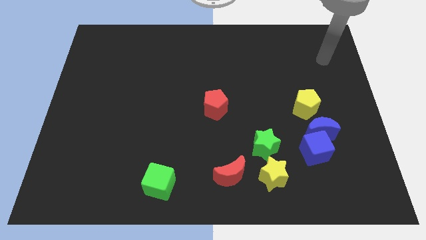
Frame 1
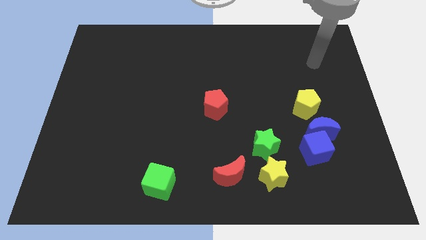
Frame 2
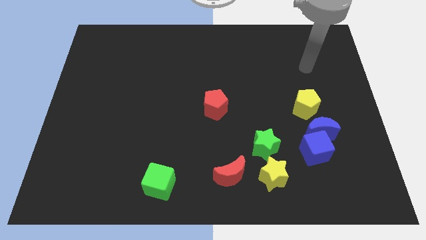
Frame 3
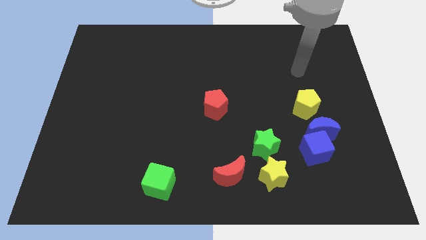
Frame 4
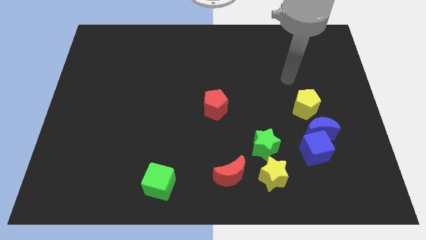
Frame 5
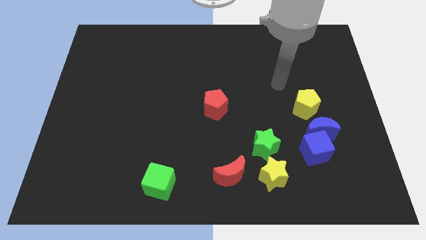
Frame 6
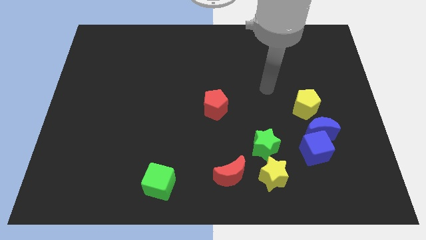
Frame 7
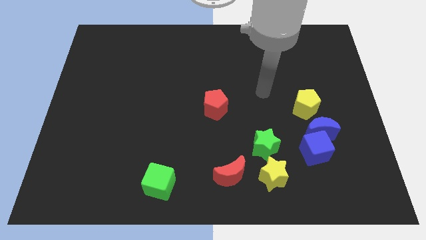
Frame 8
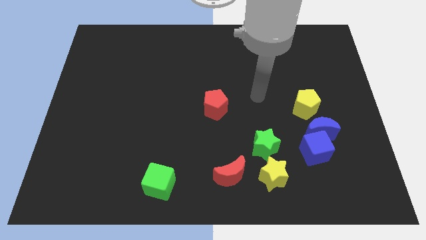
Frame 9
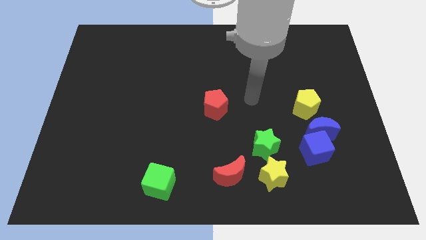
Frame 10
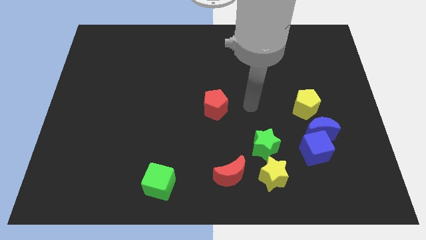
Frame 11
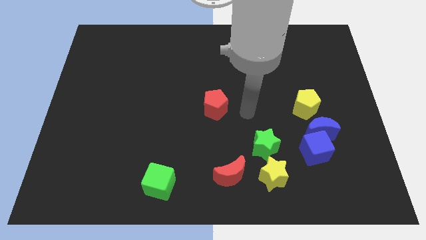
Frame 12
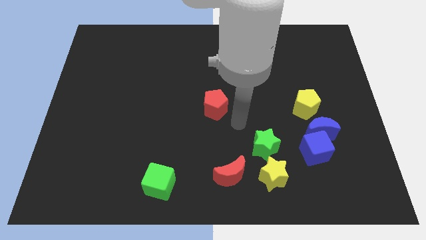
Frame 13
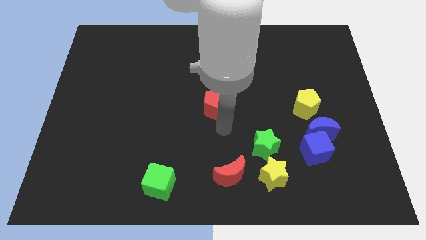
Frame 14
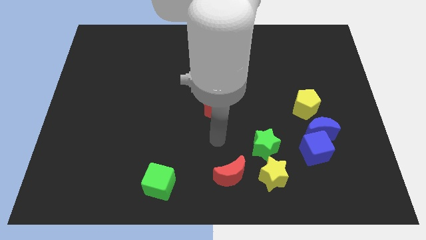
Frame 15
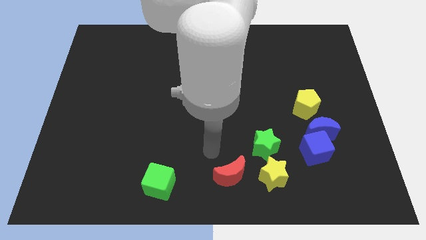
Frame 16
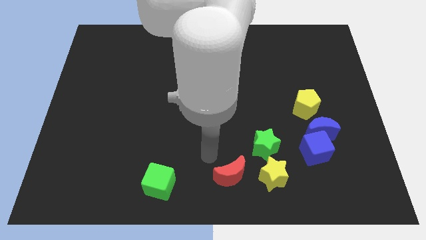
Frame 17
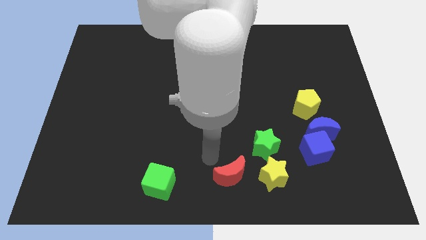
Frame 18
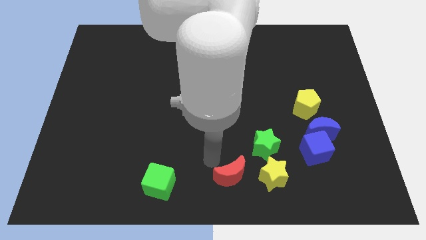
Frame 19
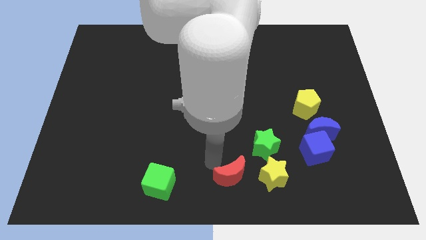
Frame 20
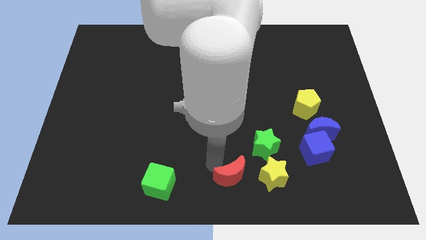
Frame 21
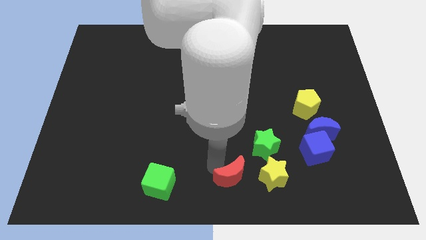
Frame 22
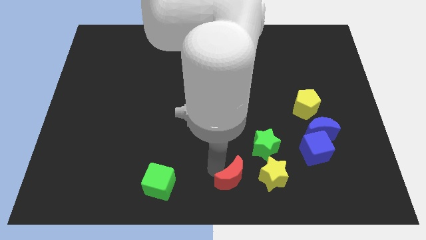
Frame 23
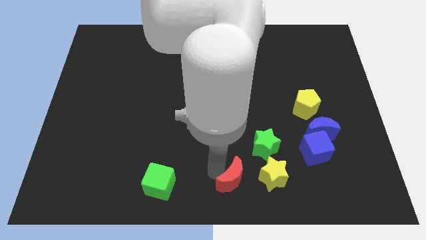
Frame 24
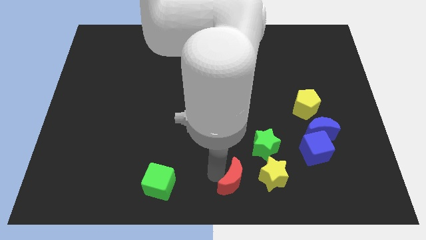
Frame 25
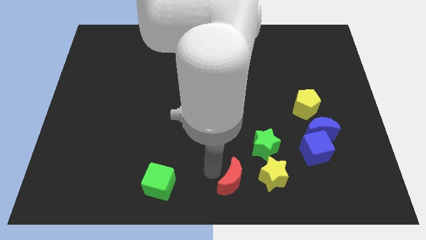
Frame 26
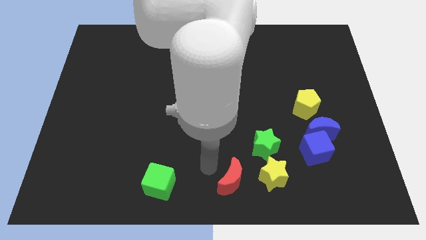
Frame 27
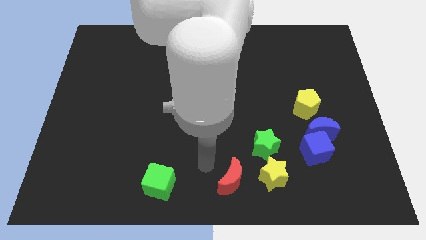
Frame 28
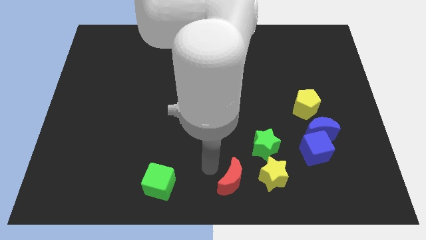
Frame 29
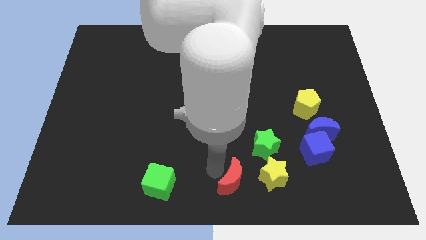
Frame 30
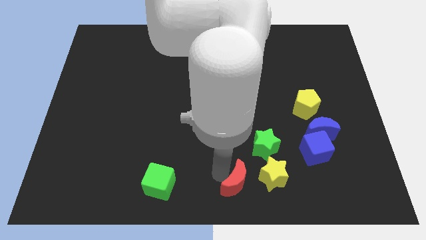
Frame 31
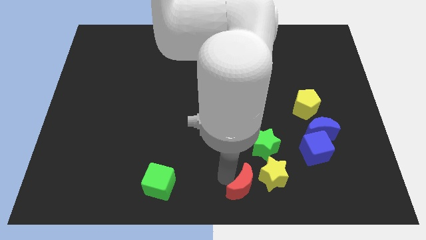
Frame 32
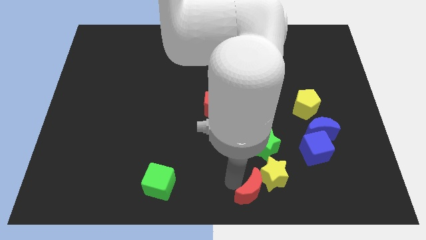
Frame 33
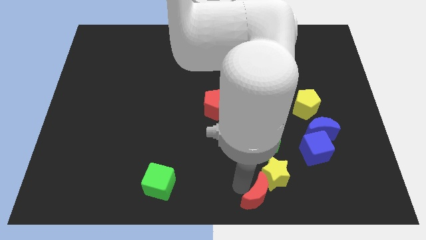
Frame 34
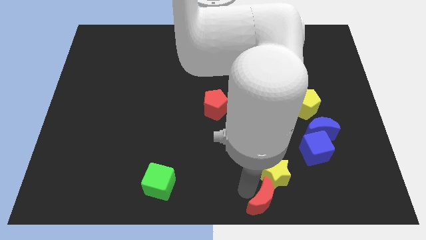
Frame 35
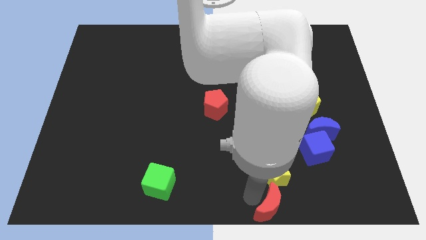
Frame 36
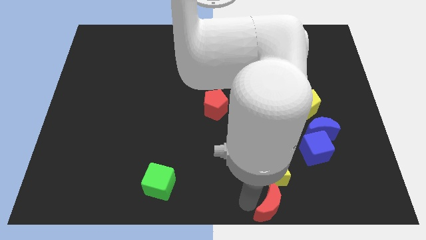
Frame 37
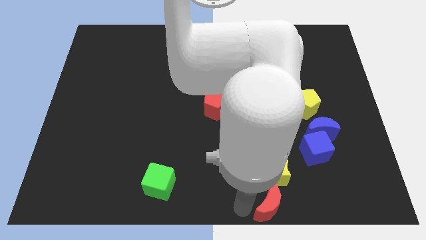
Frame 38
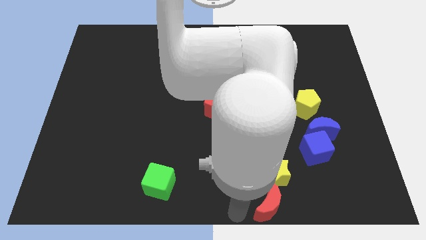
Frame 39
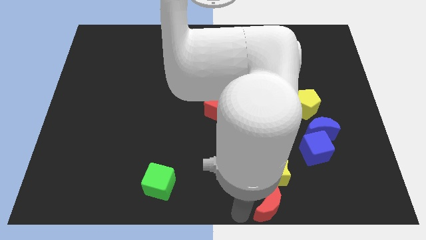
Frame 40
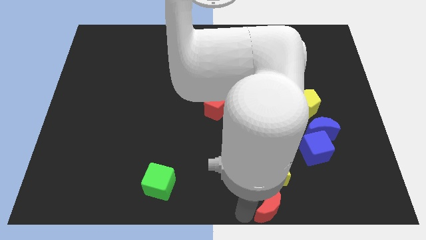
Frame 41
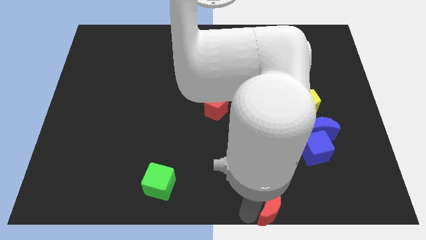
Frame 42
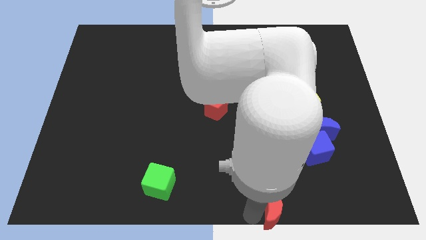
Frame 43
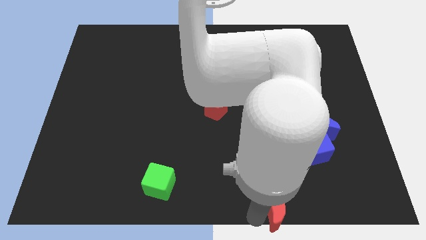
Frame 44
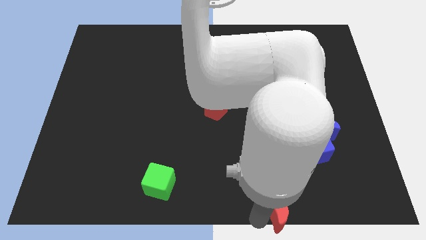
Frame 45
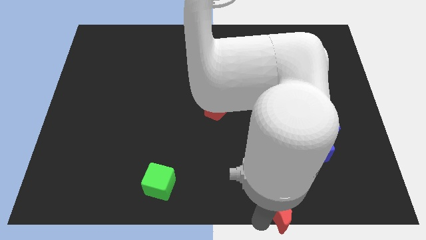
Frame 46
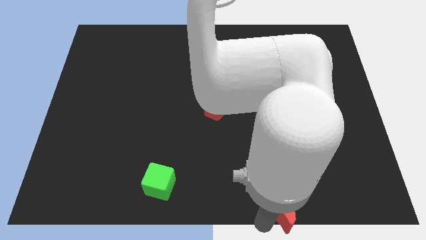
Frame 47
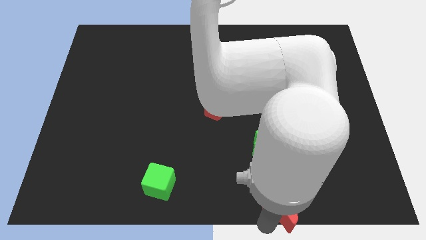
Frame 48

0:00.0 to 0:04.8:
move the red moon right slightly

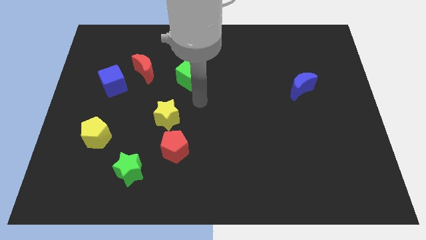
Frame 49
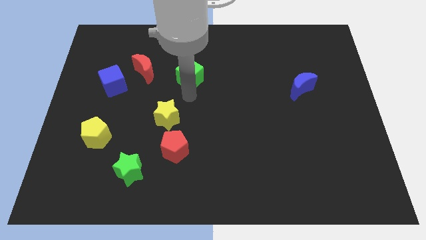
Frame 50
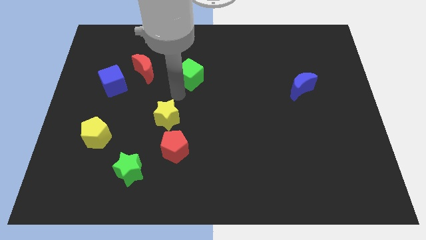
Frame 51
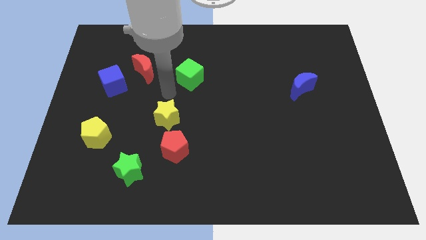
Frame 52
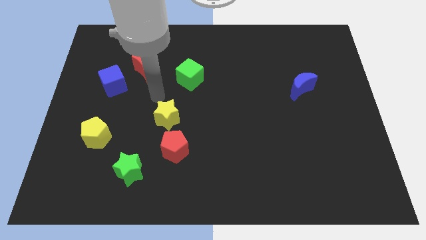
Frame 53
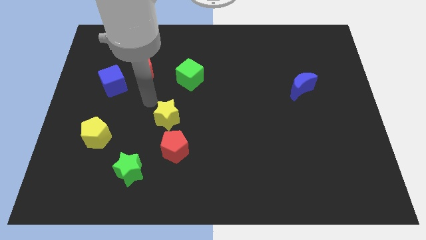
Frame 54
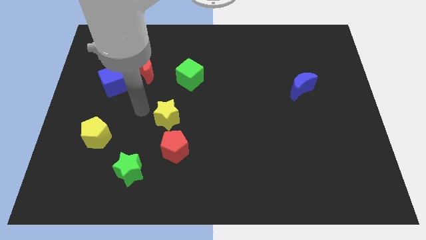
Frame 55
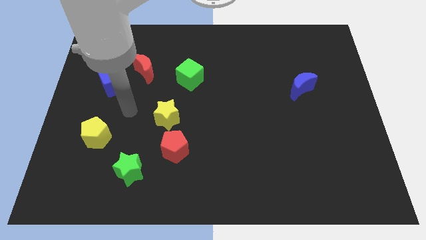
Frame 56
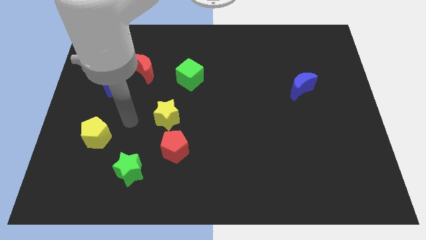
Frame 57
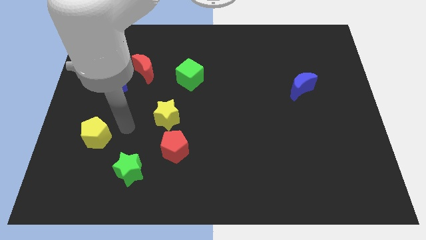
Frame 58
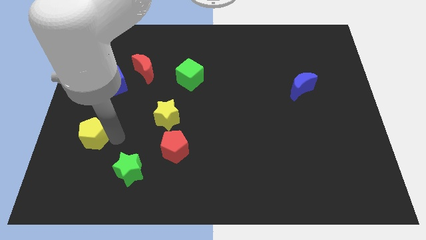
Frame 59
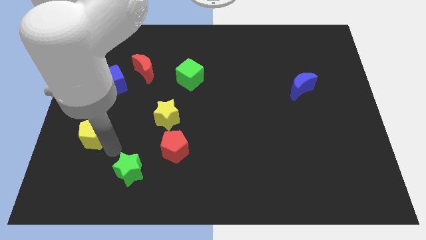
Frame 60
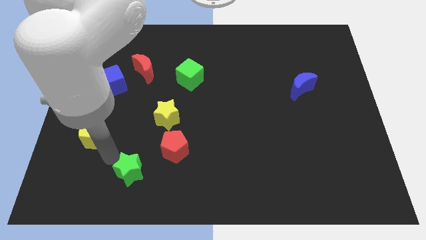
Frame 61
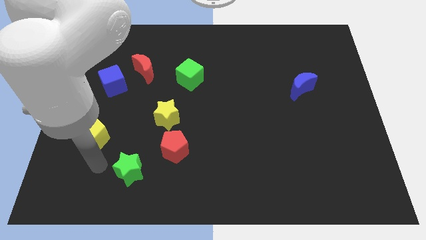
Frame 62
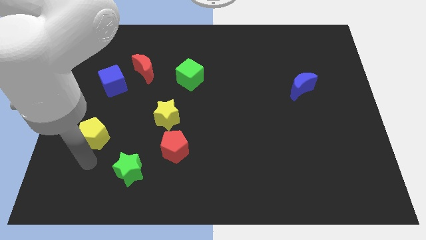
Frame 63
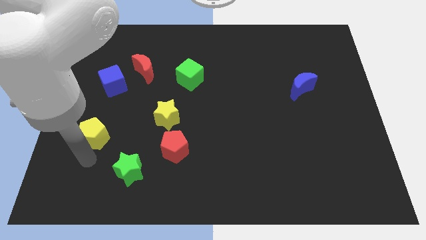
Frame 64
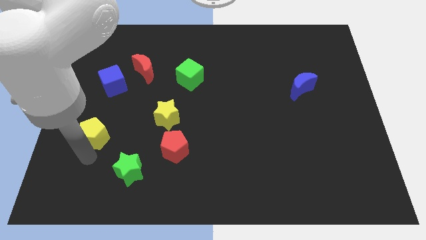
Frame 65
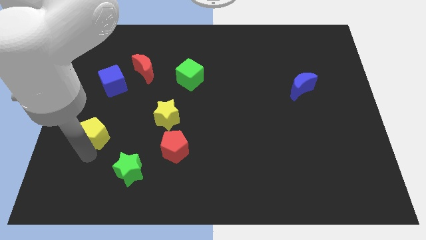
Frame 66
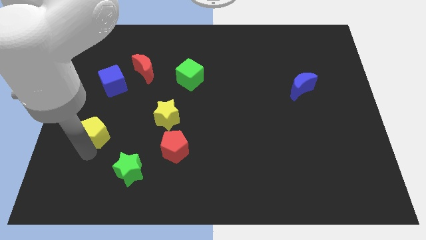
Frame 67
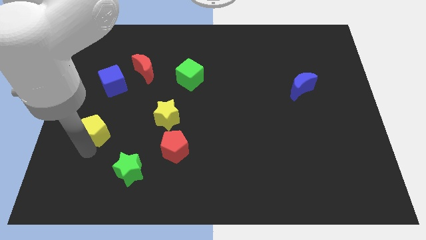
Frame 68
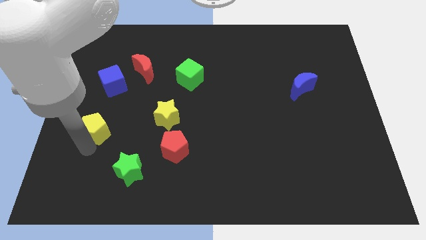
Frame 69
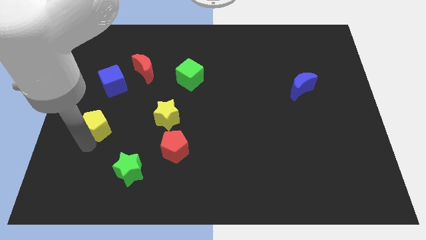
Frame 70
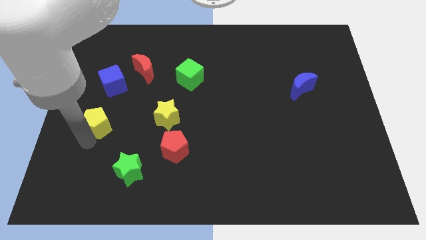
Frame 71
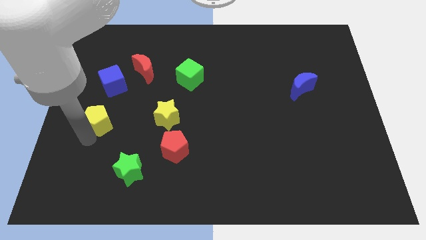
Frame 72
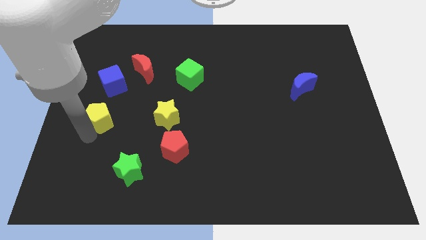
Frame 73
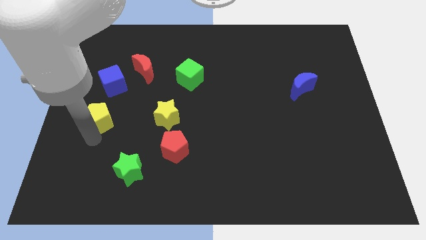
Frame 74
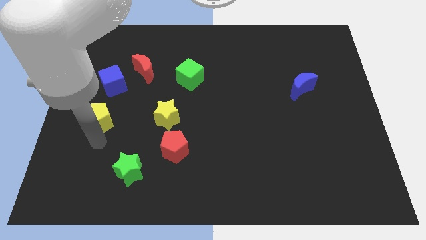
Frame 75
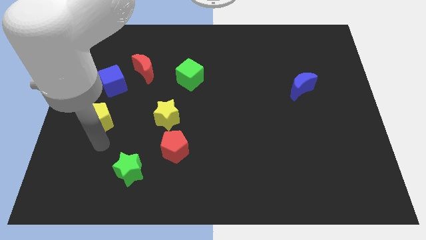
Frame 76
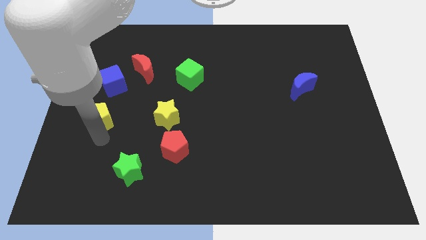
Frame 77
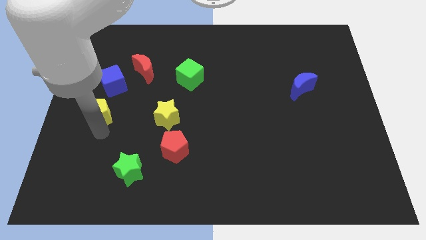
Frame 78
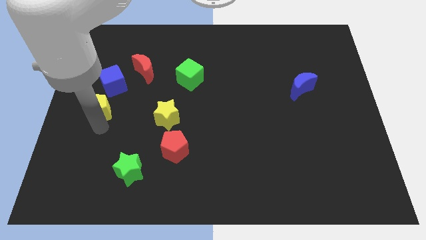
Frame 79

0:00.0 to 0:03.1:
move the yellow pentagon a bit up

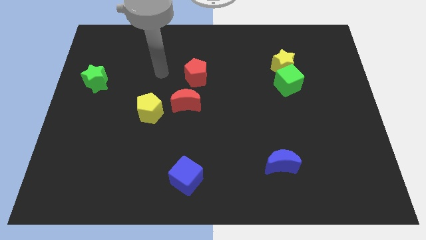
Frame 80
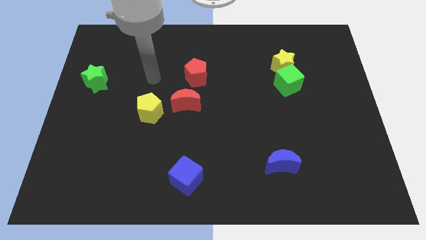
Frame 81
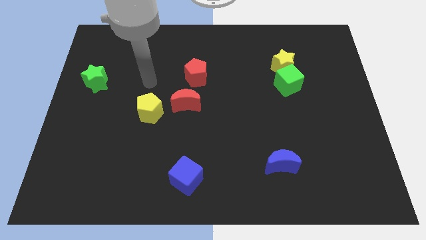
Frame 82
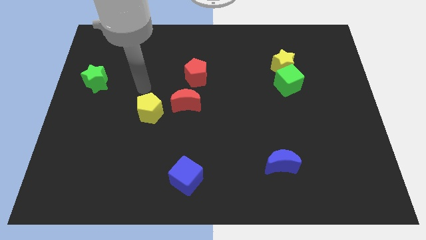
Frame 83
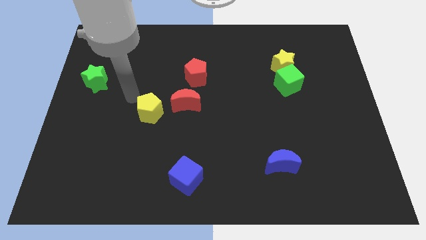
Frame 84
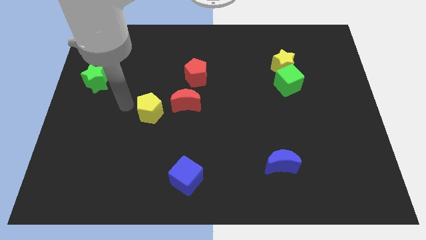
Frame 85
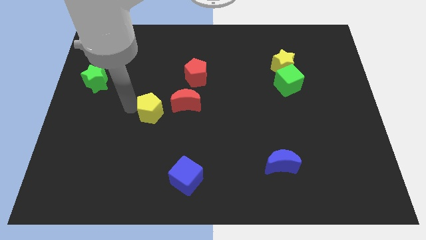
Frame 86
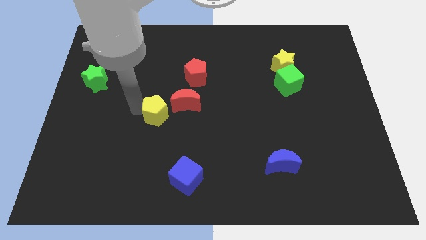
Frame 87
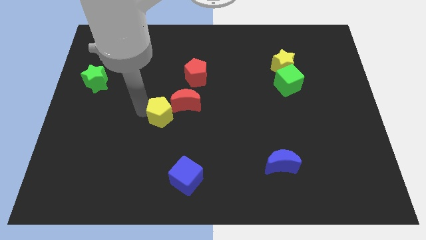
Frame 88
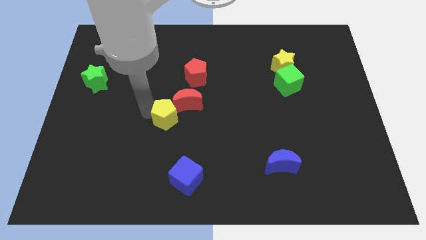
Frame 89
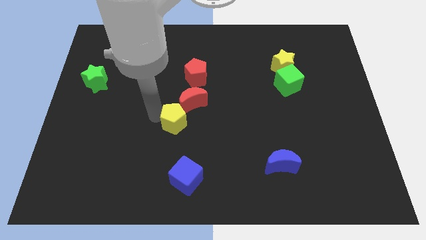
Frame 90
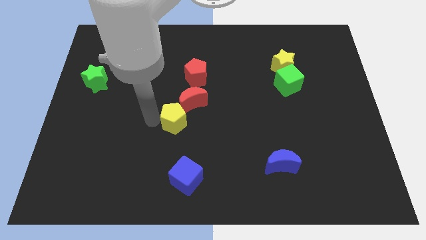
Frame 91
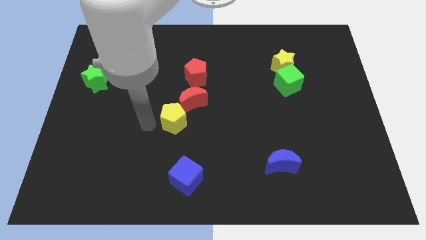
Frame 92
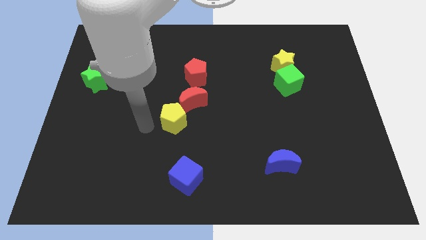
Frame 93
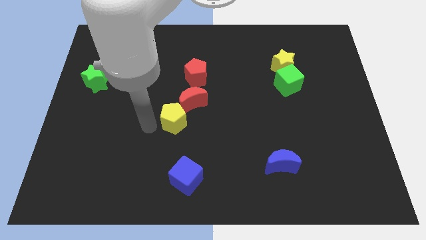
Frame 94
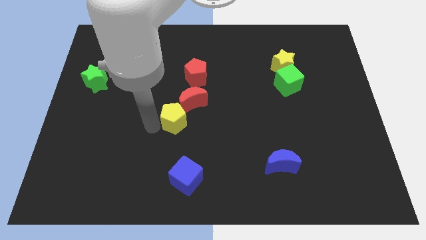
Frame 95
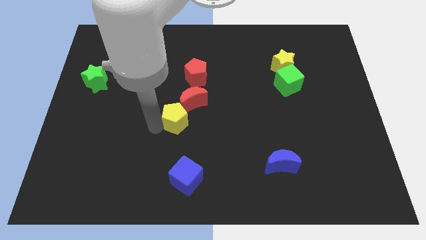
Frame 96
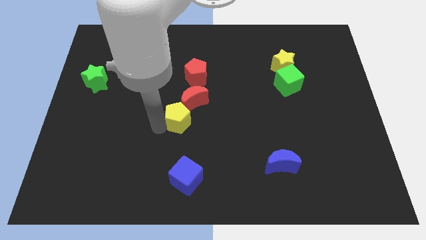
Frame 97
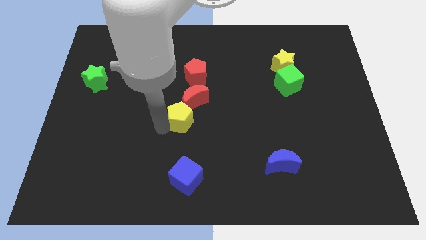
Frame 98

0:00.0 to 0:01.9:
push the yellow pentagon to the right somewhat
